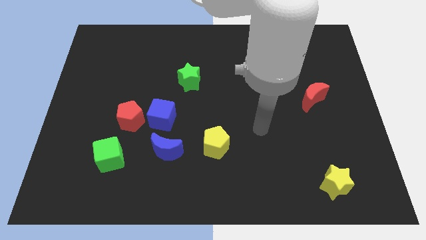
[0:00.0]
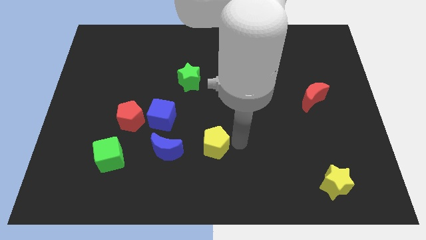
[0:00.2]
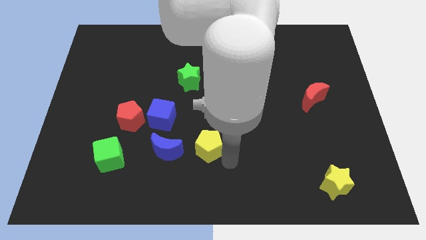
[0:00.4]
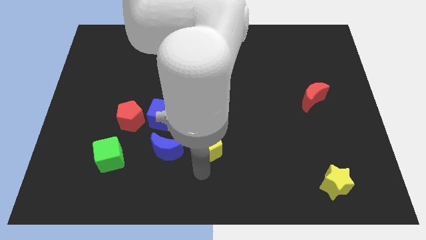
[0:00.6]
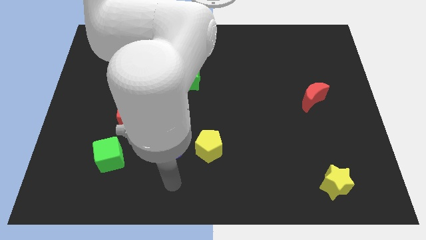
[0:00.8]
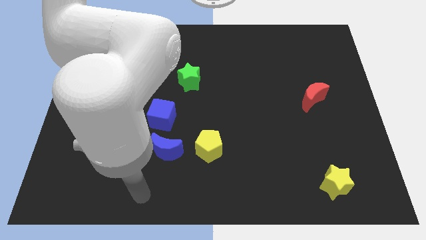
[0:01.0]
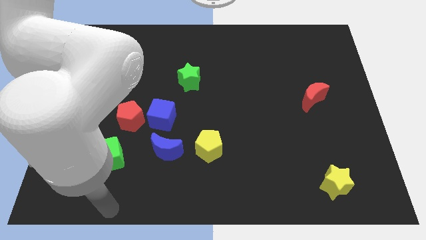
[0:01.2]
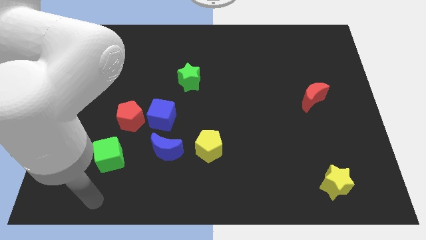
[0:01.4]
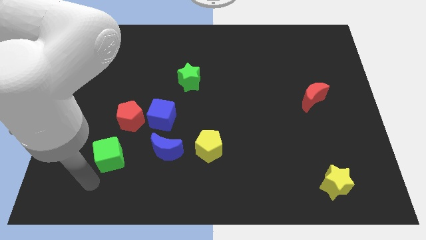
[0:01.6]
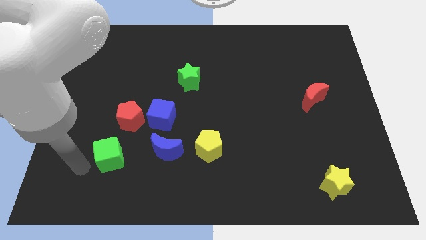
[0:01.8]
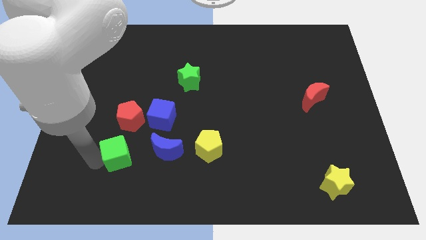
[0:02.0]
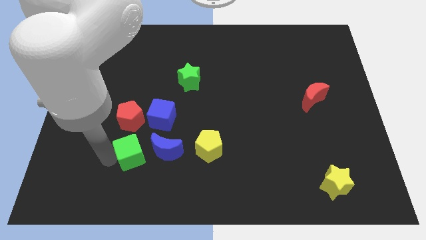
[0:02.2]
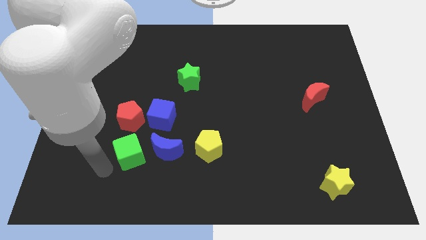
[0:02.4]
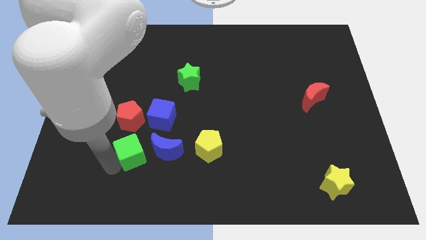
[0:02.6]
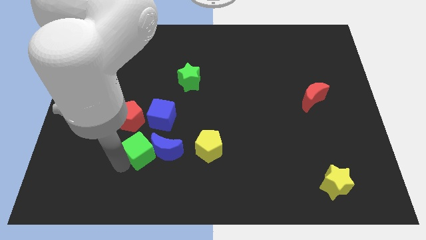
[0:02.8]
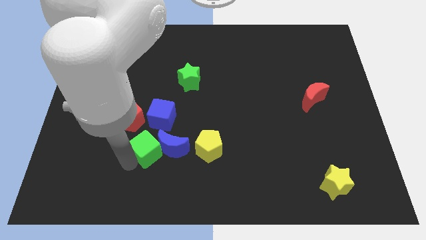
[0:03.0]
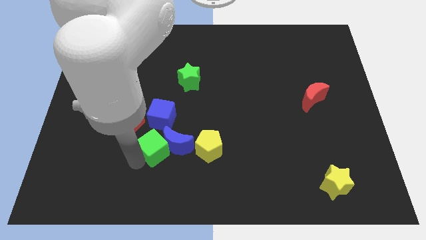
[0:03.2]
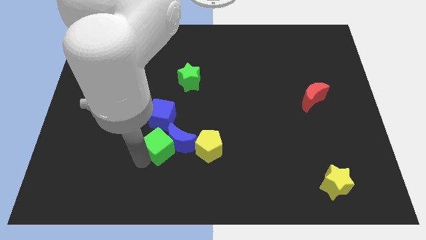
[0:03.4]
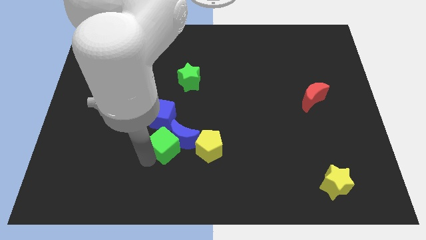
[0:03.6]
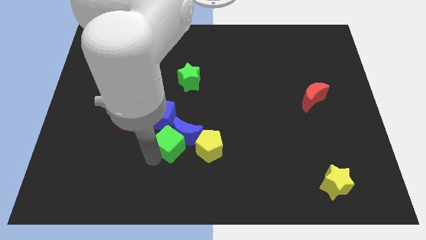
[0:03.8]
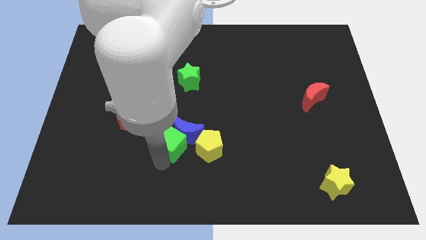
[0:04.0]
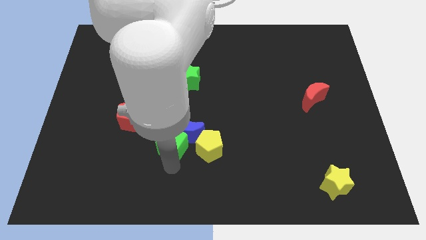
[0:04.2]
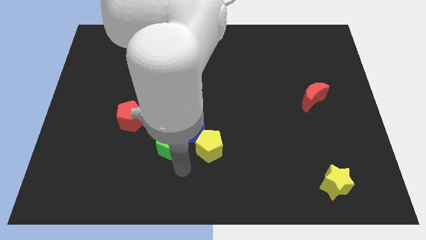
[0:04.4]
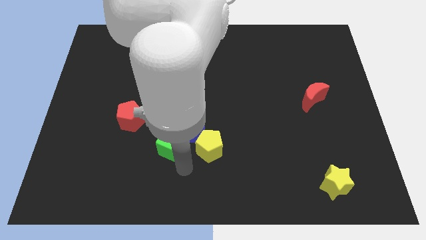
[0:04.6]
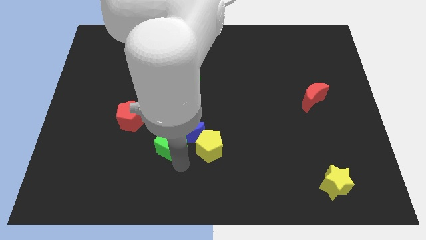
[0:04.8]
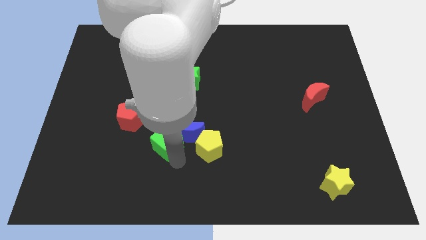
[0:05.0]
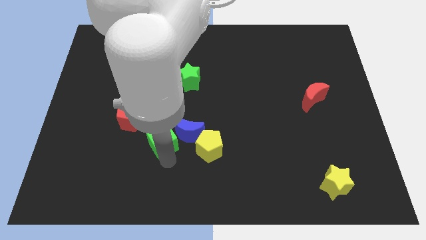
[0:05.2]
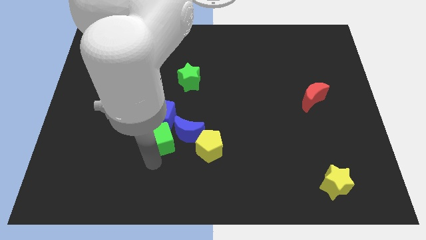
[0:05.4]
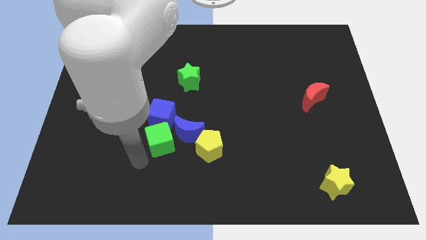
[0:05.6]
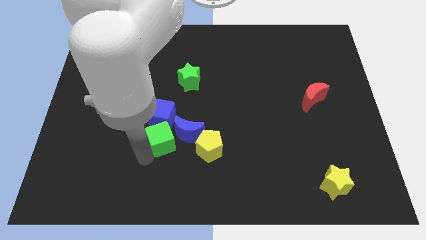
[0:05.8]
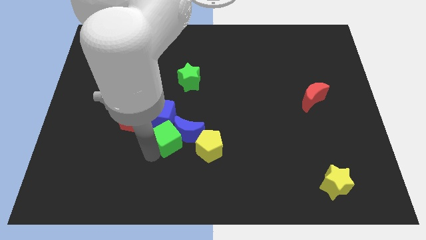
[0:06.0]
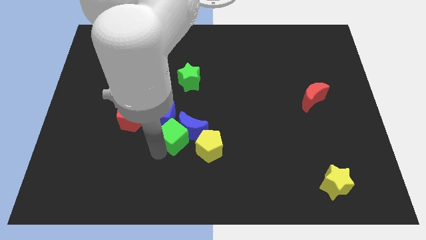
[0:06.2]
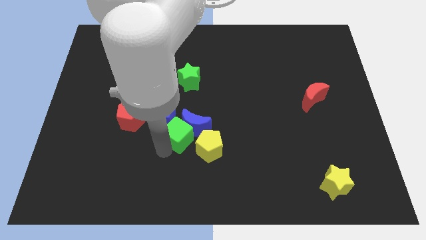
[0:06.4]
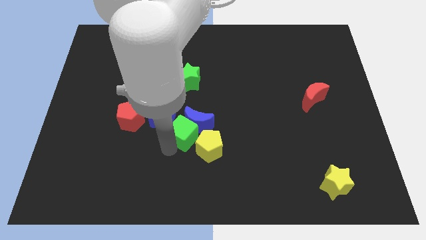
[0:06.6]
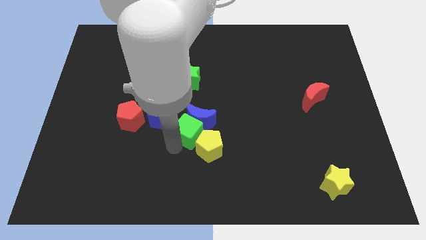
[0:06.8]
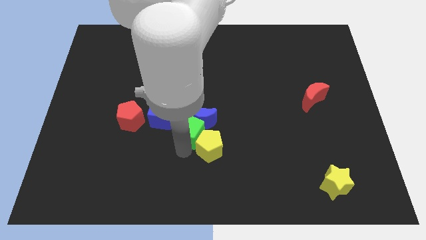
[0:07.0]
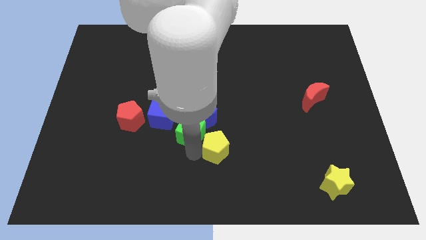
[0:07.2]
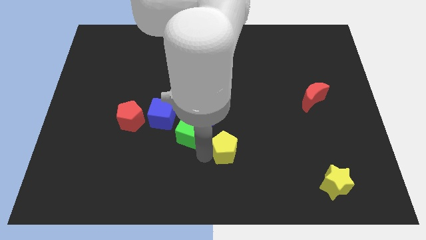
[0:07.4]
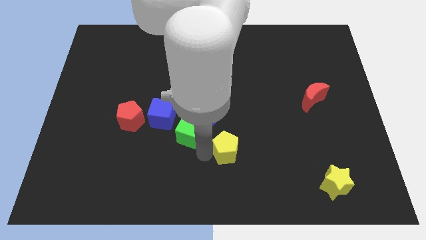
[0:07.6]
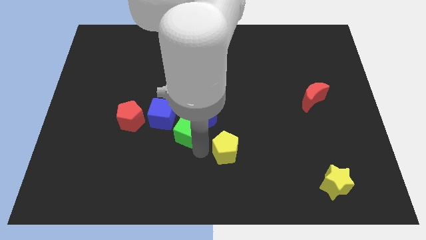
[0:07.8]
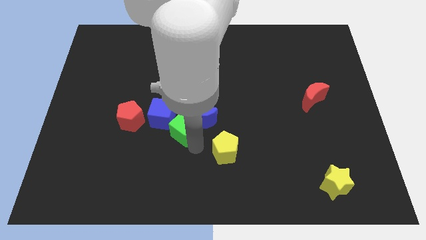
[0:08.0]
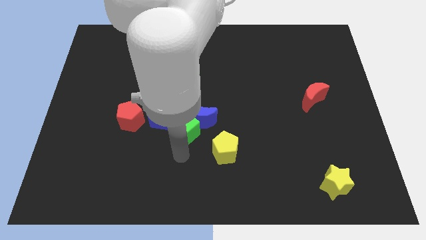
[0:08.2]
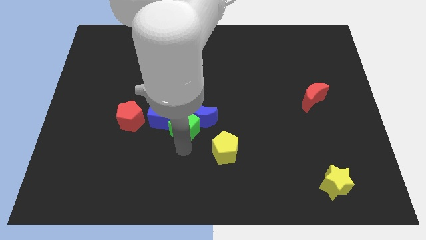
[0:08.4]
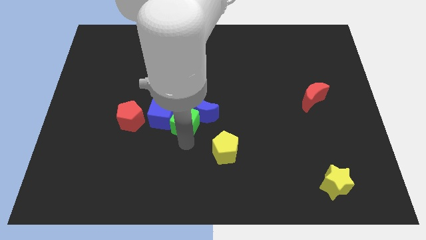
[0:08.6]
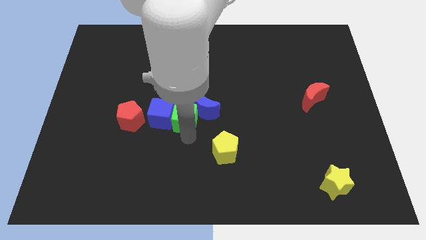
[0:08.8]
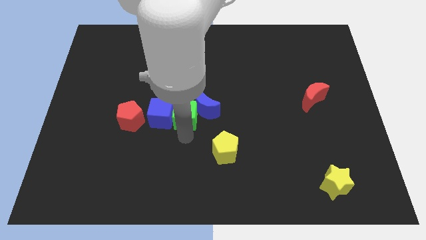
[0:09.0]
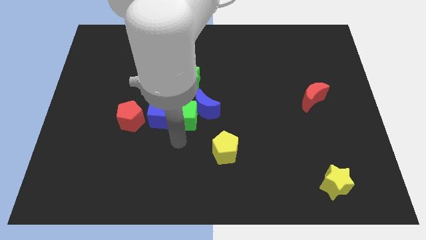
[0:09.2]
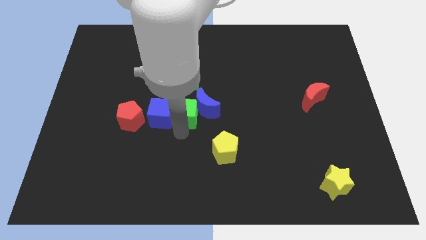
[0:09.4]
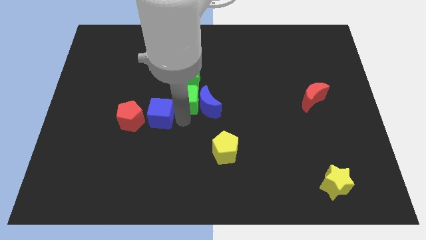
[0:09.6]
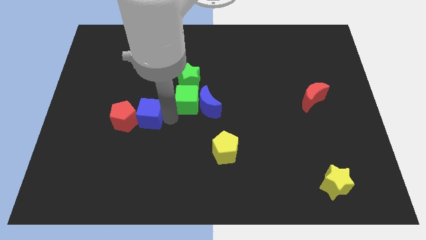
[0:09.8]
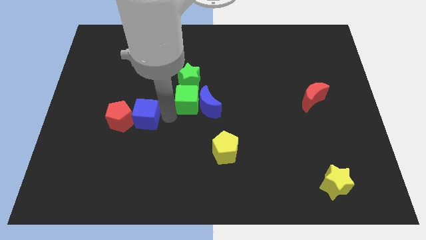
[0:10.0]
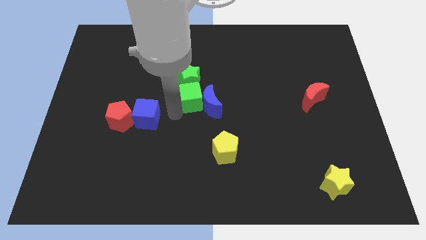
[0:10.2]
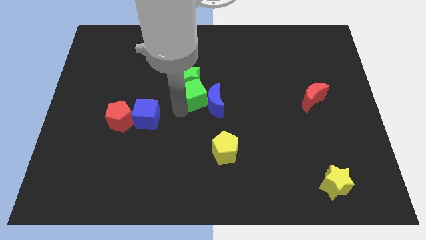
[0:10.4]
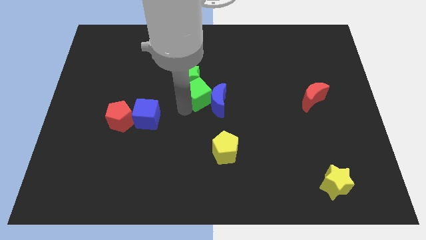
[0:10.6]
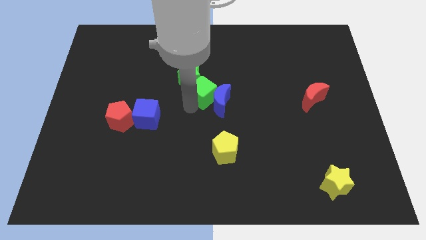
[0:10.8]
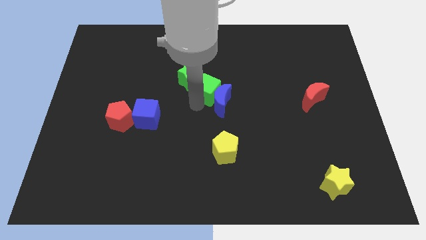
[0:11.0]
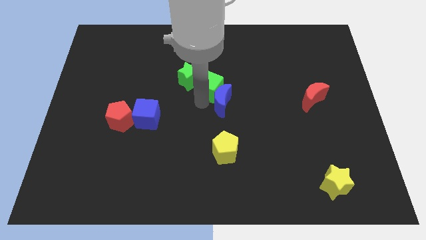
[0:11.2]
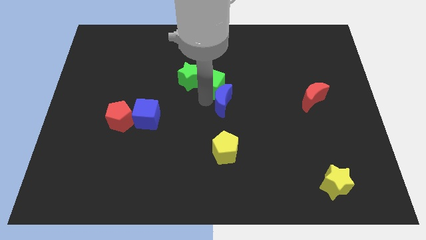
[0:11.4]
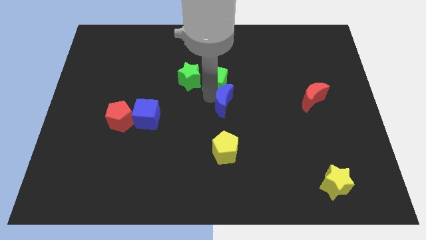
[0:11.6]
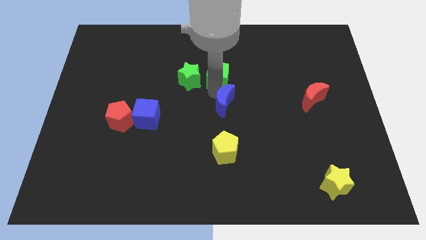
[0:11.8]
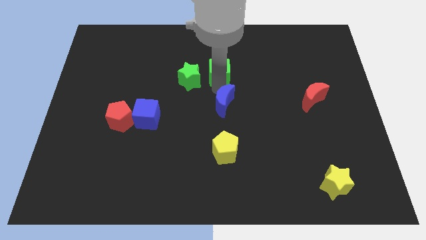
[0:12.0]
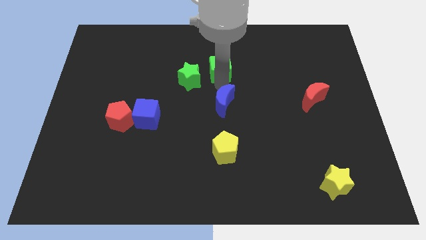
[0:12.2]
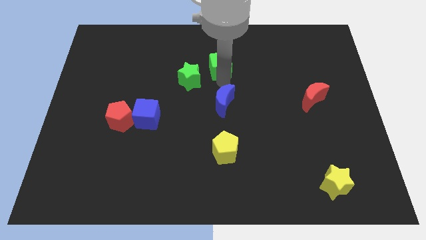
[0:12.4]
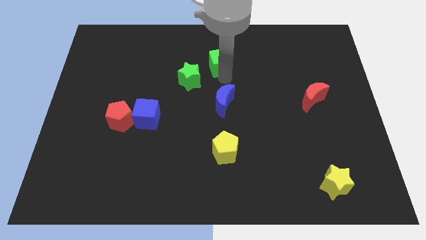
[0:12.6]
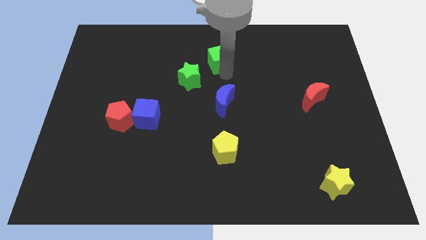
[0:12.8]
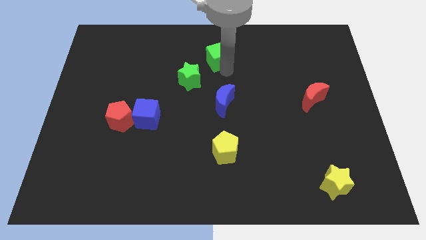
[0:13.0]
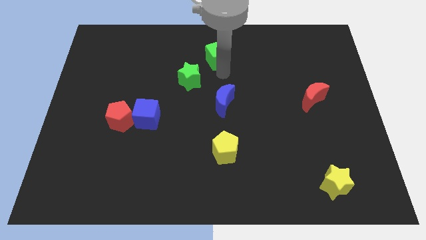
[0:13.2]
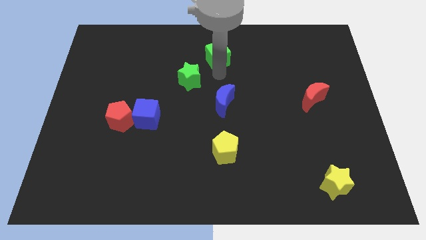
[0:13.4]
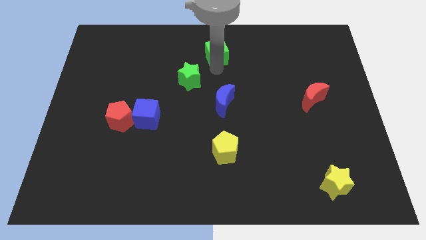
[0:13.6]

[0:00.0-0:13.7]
put the green cube to the top
